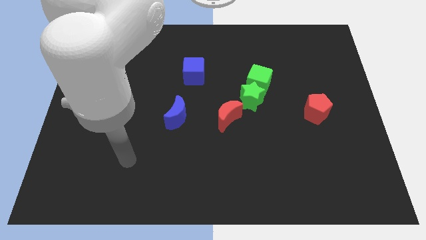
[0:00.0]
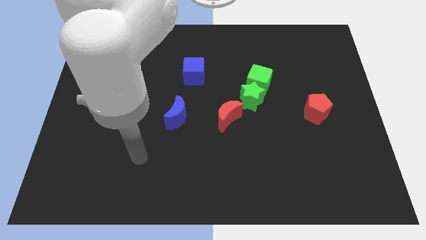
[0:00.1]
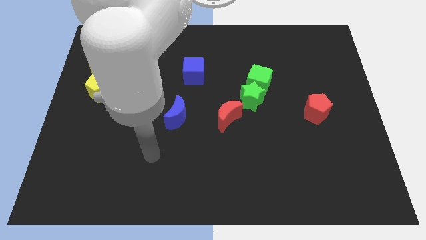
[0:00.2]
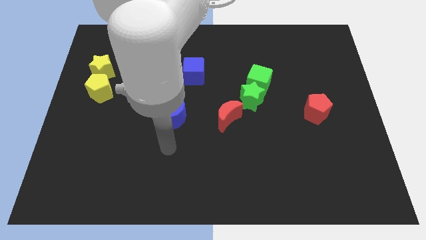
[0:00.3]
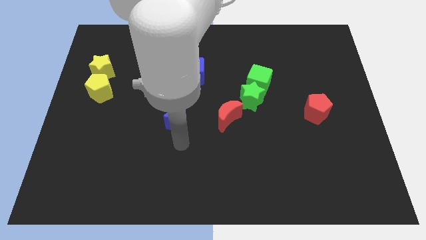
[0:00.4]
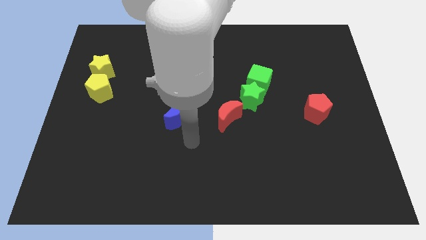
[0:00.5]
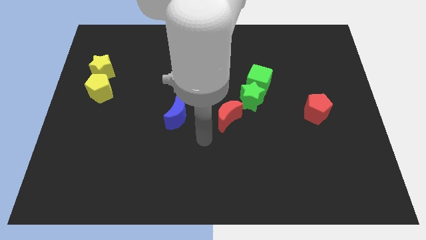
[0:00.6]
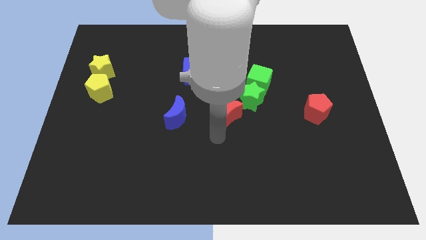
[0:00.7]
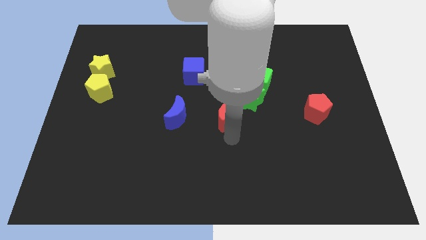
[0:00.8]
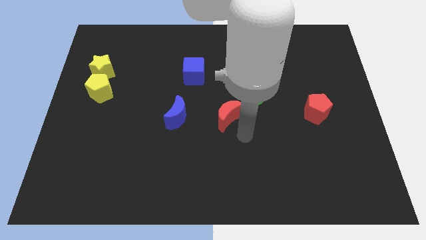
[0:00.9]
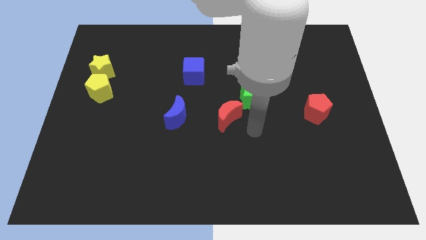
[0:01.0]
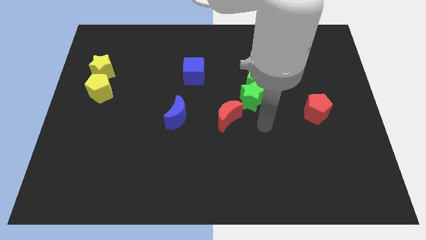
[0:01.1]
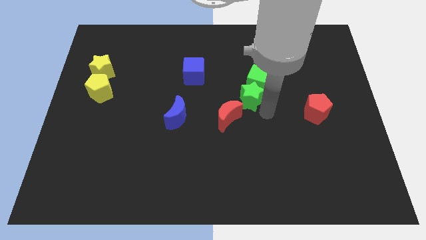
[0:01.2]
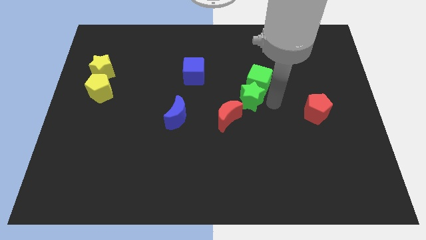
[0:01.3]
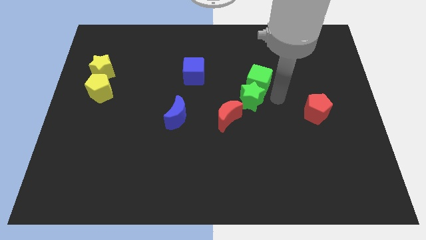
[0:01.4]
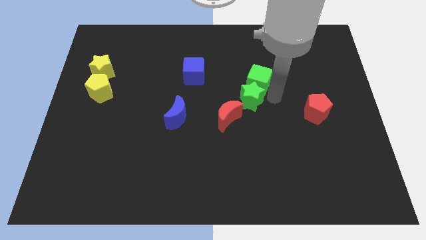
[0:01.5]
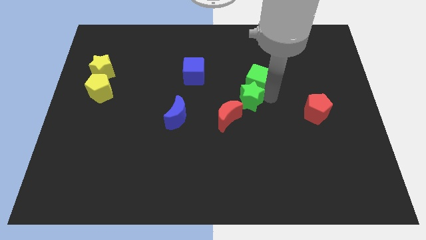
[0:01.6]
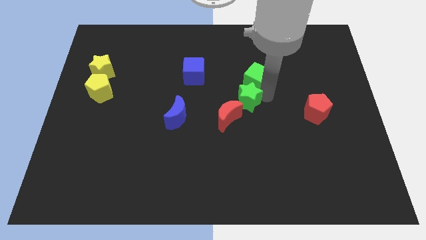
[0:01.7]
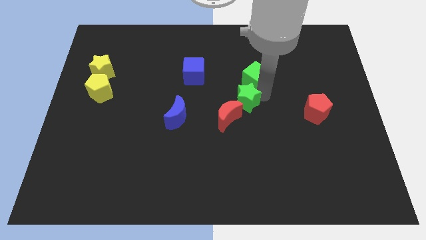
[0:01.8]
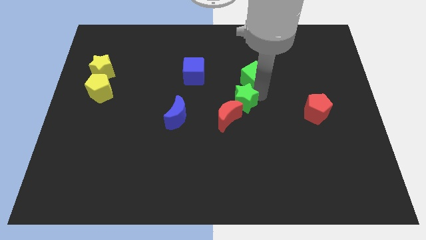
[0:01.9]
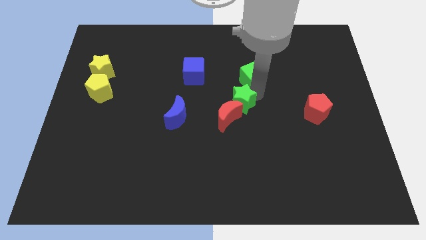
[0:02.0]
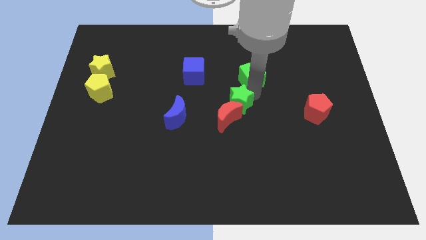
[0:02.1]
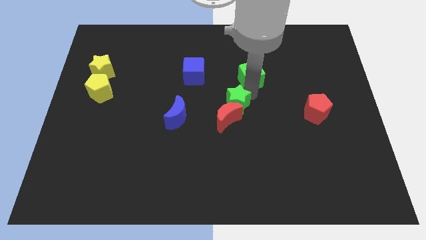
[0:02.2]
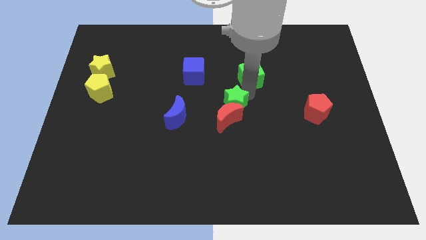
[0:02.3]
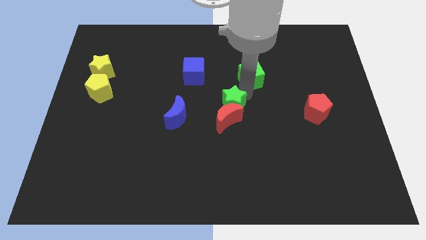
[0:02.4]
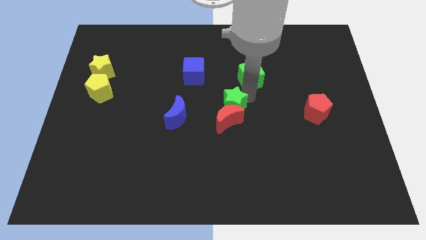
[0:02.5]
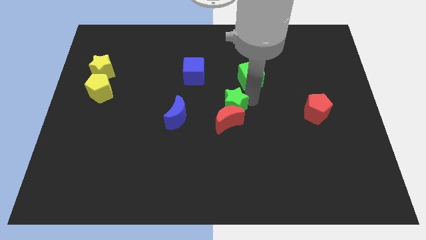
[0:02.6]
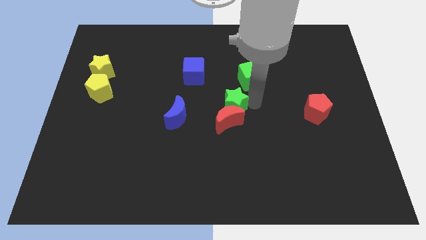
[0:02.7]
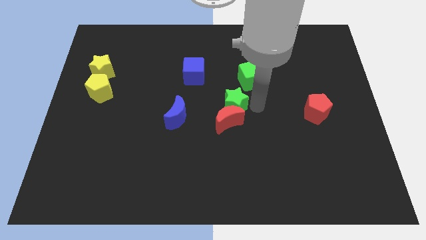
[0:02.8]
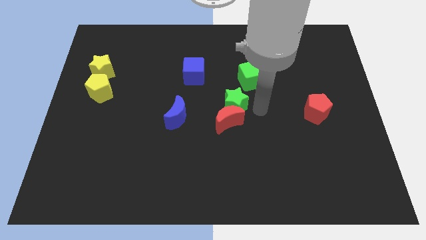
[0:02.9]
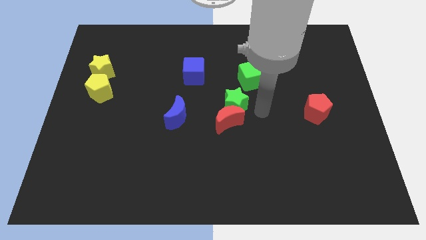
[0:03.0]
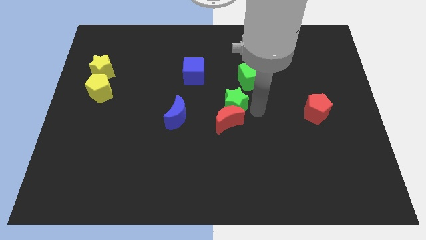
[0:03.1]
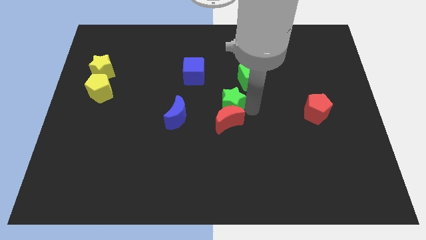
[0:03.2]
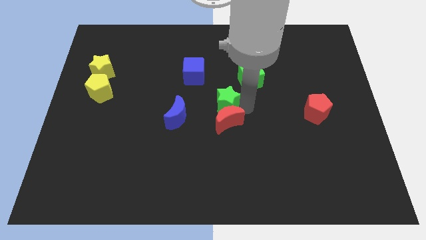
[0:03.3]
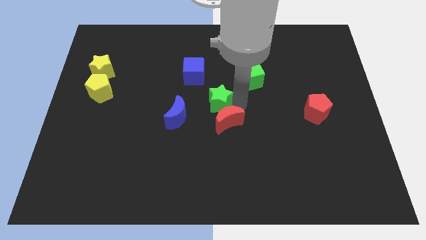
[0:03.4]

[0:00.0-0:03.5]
slide the green star left somewhat

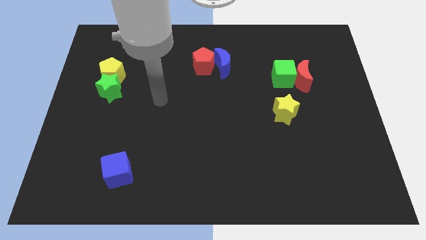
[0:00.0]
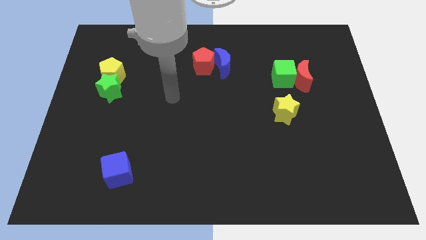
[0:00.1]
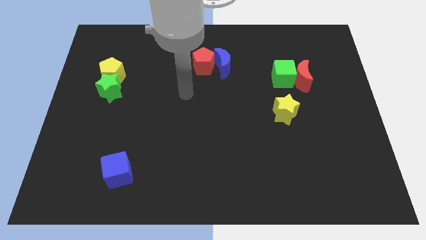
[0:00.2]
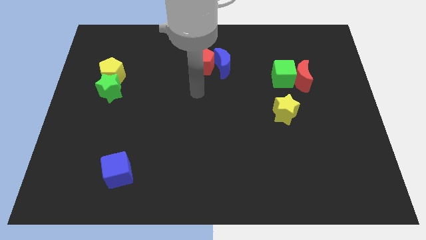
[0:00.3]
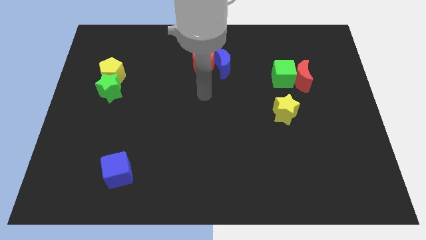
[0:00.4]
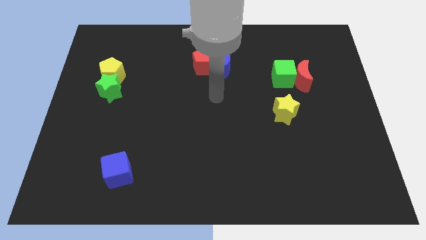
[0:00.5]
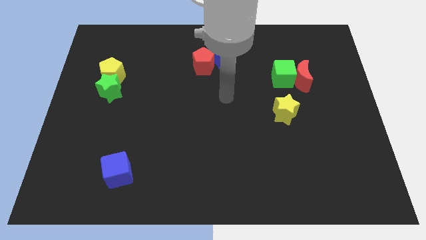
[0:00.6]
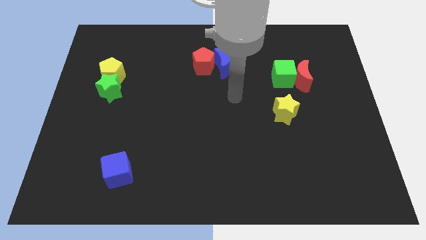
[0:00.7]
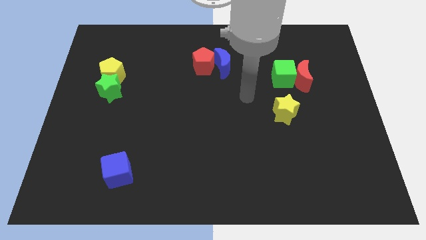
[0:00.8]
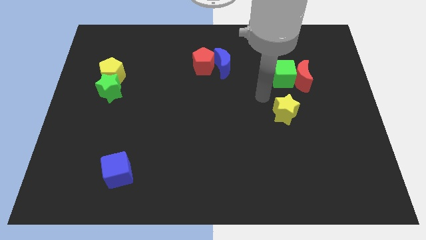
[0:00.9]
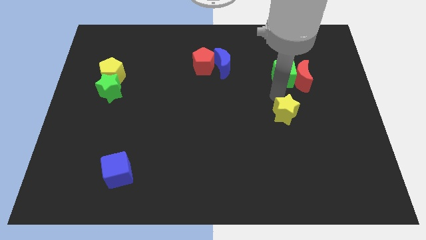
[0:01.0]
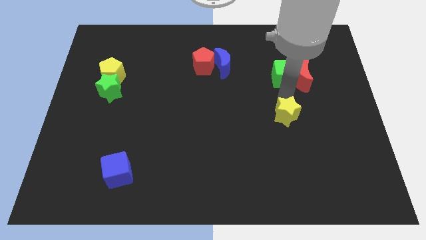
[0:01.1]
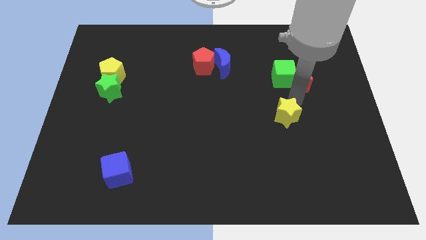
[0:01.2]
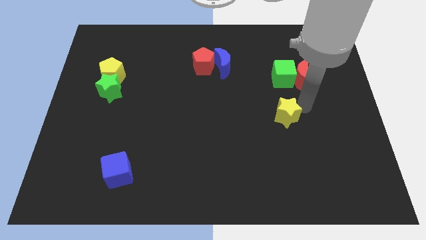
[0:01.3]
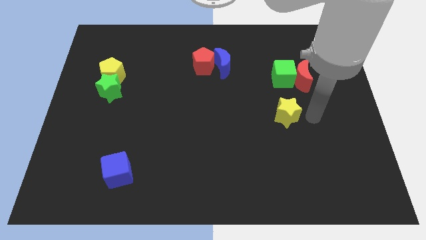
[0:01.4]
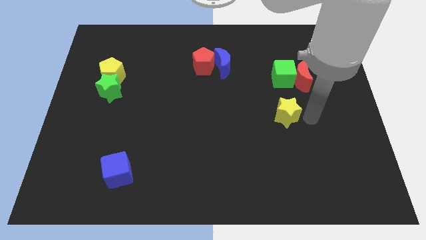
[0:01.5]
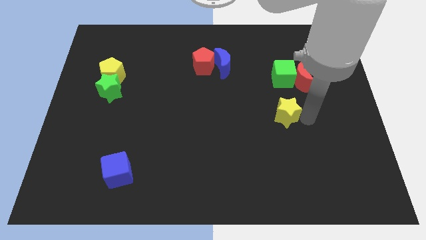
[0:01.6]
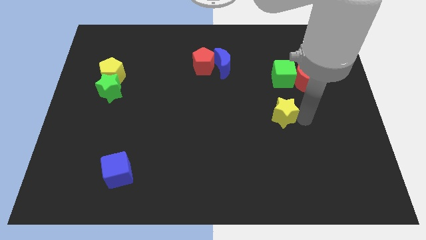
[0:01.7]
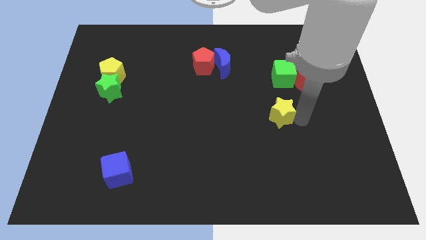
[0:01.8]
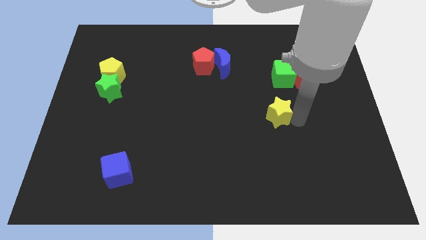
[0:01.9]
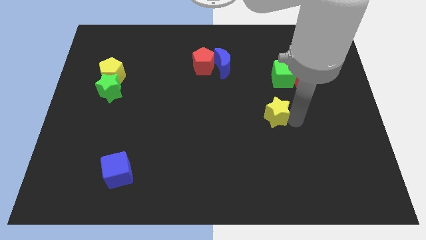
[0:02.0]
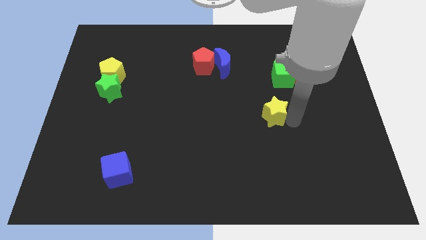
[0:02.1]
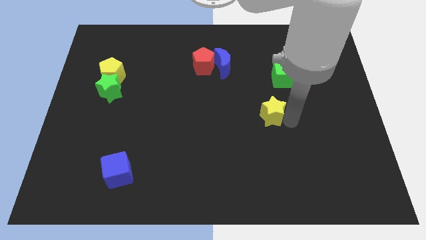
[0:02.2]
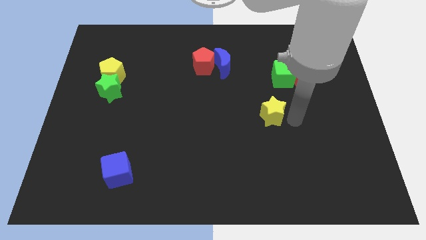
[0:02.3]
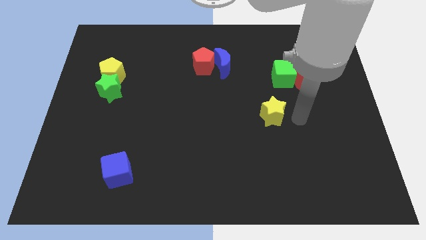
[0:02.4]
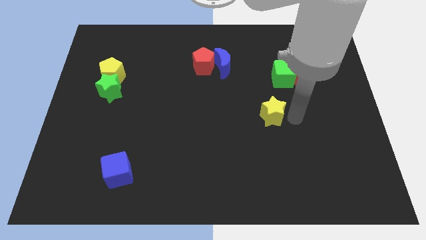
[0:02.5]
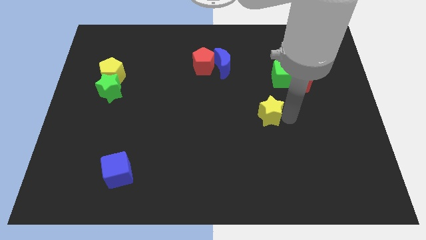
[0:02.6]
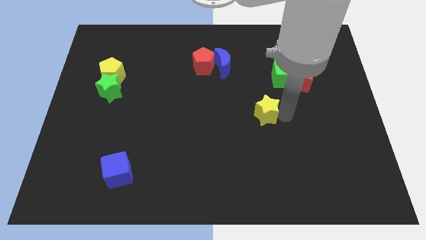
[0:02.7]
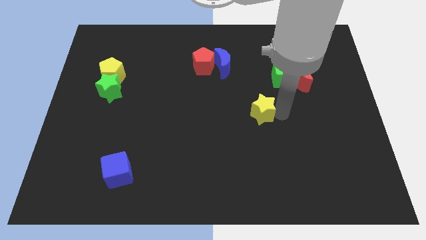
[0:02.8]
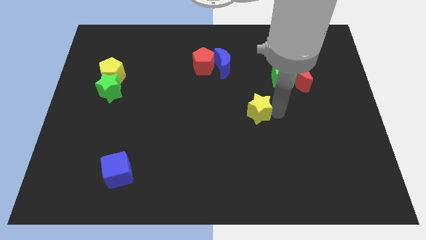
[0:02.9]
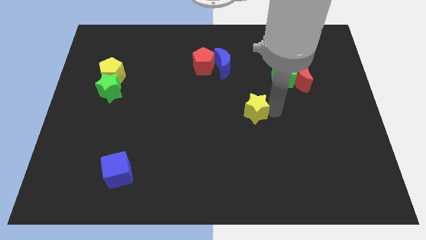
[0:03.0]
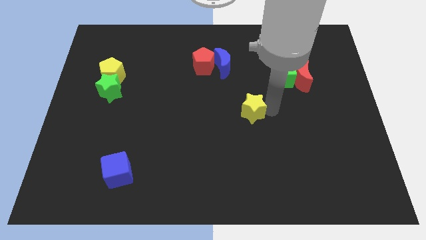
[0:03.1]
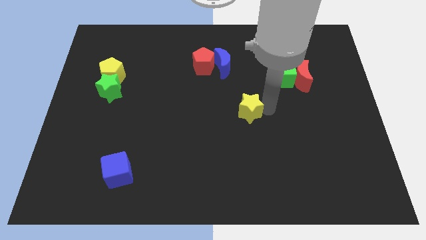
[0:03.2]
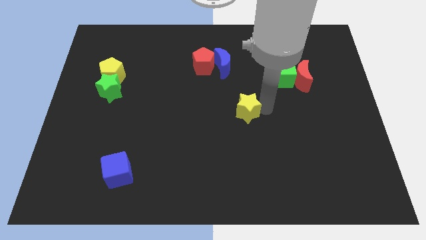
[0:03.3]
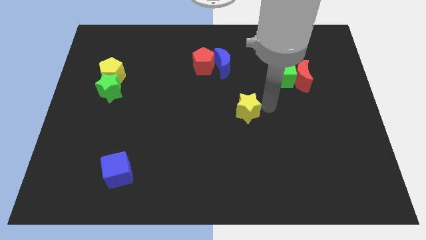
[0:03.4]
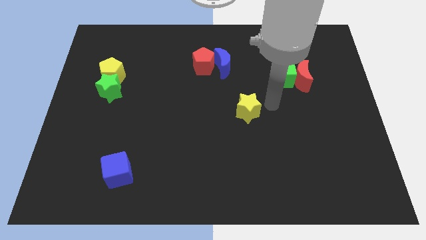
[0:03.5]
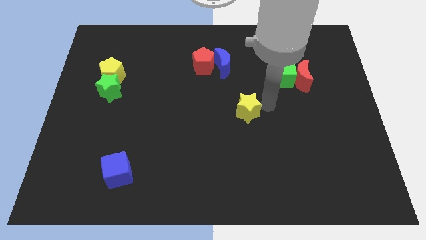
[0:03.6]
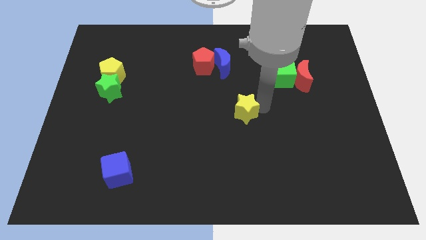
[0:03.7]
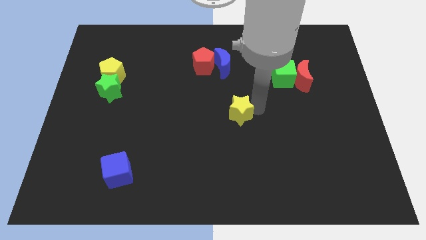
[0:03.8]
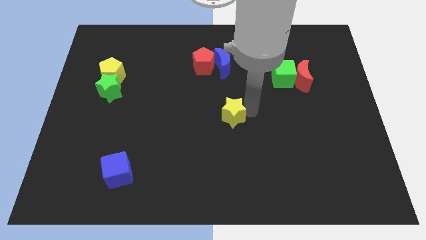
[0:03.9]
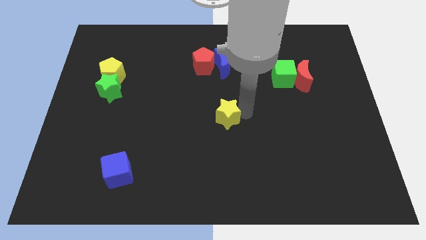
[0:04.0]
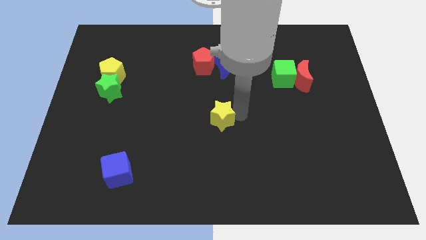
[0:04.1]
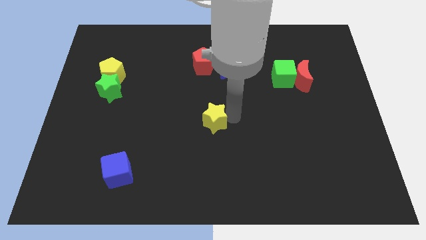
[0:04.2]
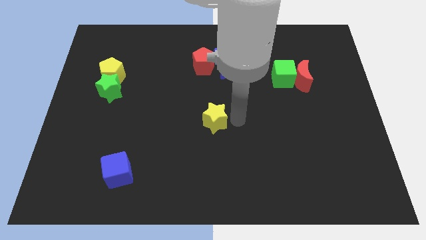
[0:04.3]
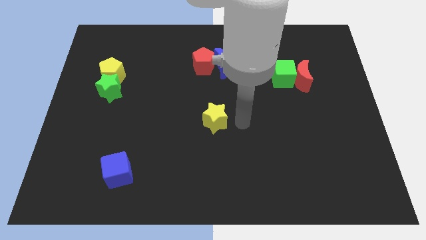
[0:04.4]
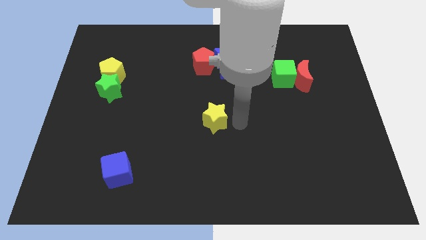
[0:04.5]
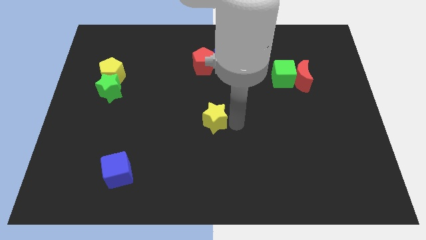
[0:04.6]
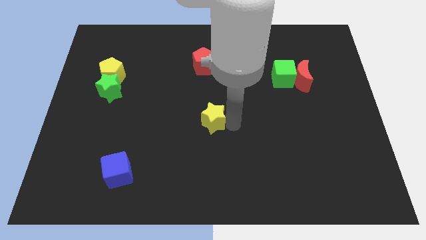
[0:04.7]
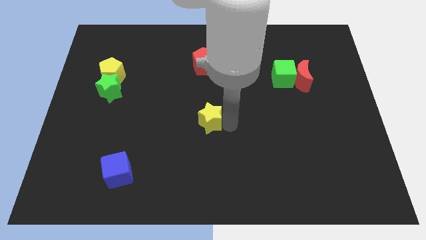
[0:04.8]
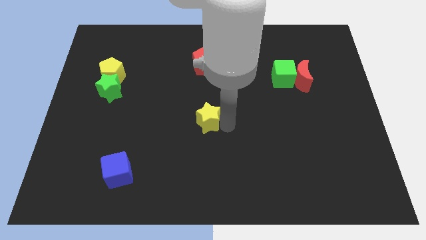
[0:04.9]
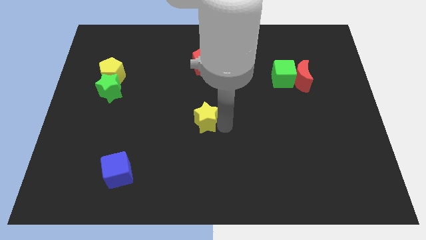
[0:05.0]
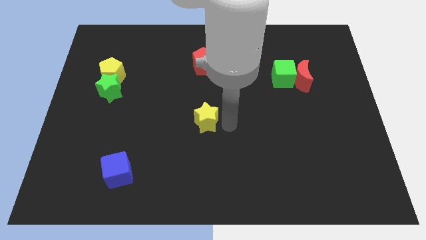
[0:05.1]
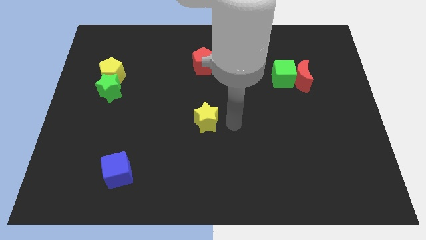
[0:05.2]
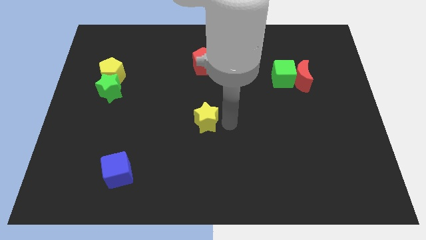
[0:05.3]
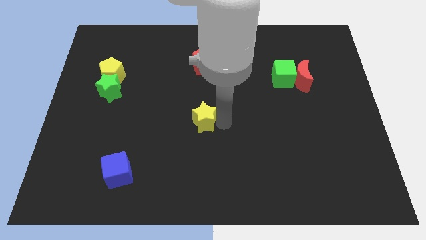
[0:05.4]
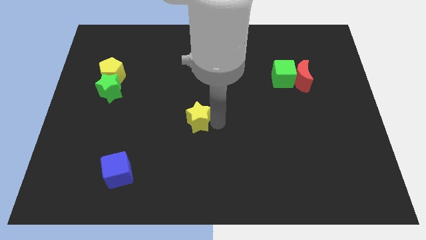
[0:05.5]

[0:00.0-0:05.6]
slide the yellow star left
